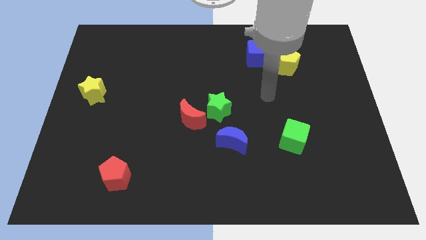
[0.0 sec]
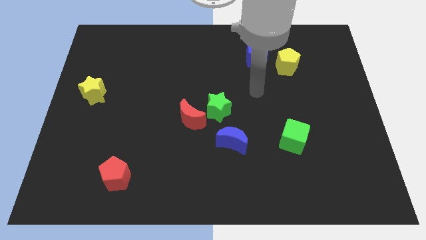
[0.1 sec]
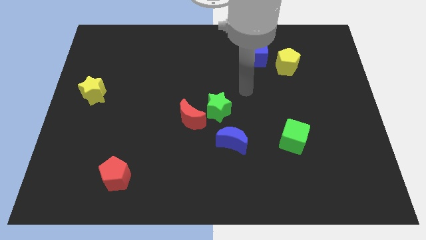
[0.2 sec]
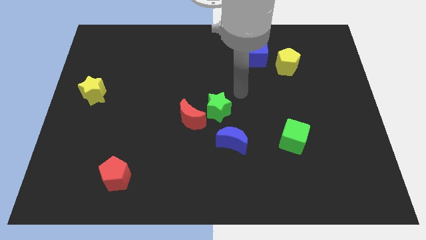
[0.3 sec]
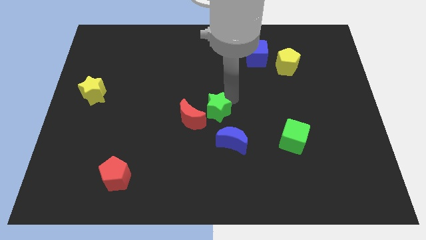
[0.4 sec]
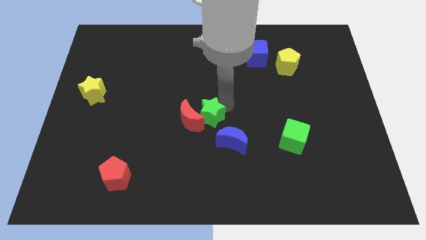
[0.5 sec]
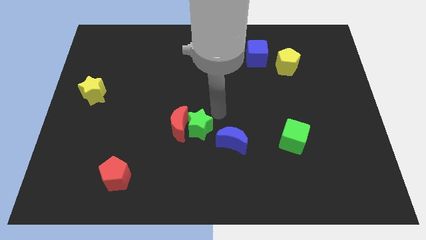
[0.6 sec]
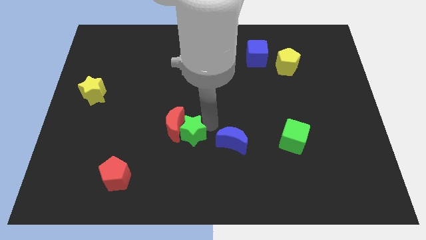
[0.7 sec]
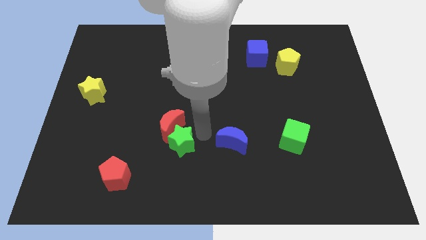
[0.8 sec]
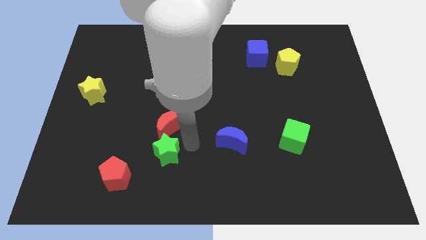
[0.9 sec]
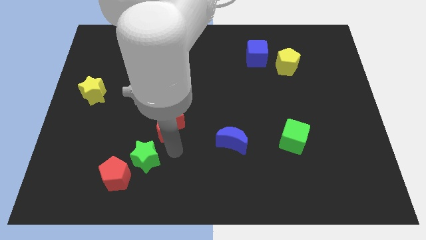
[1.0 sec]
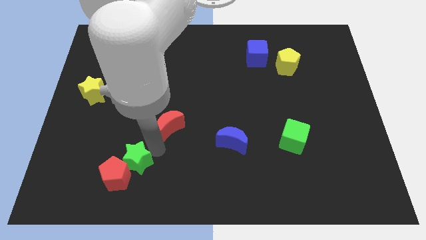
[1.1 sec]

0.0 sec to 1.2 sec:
move the red moon away from the green star

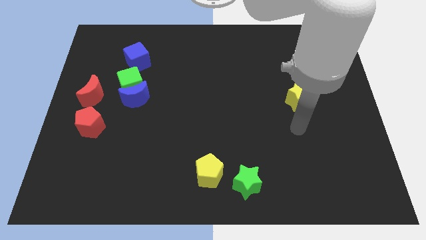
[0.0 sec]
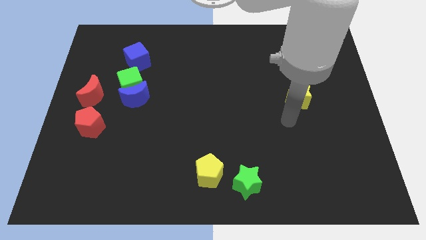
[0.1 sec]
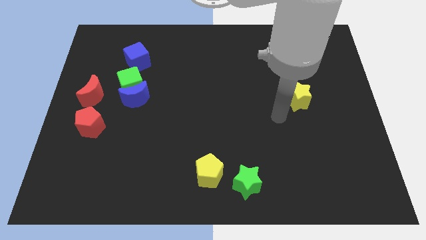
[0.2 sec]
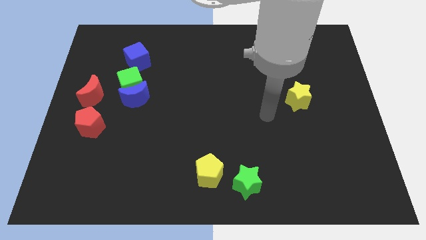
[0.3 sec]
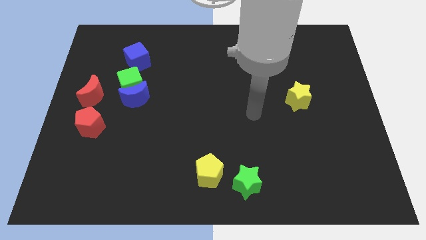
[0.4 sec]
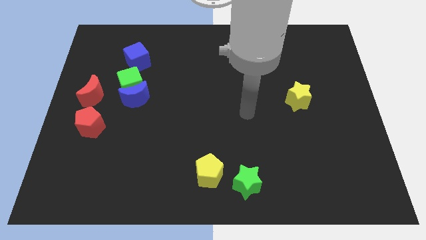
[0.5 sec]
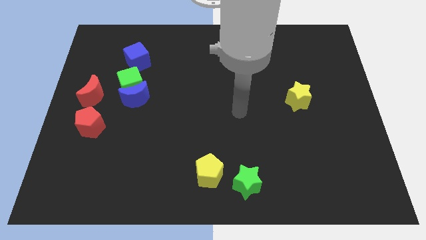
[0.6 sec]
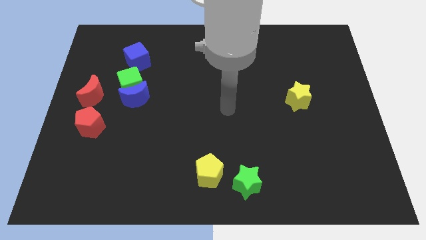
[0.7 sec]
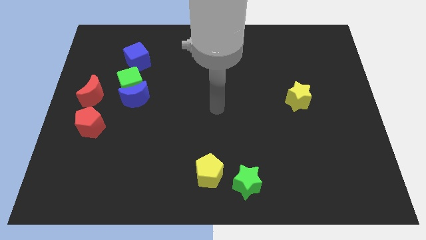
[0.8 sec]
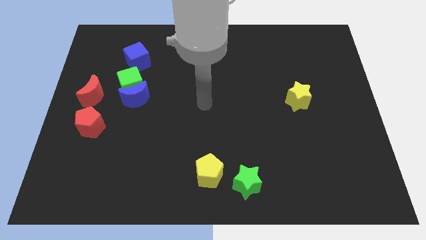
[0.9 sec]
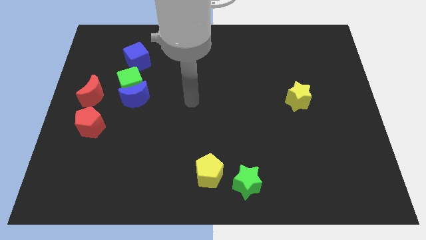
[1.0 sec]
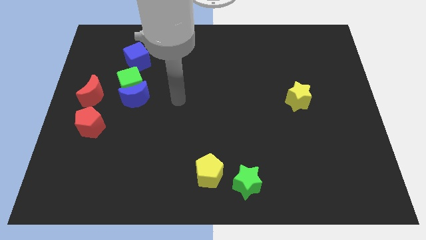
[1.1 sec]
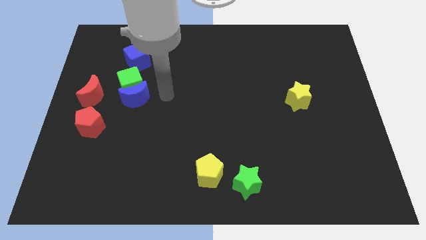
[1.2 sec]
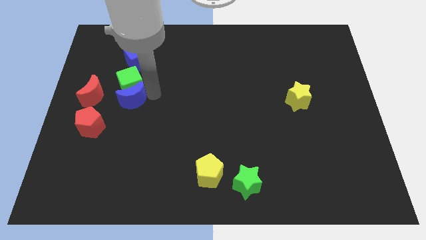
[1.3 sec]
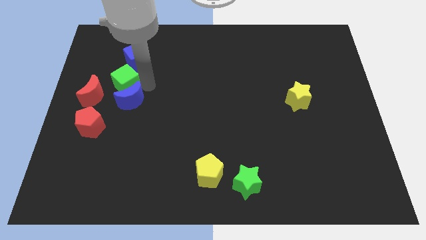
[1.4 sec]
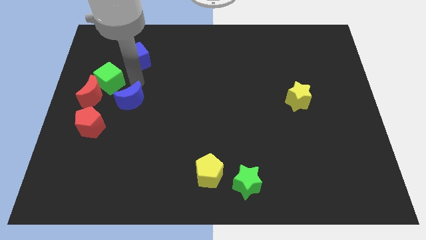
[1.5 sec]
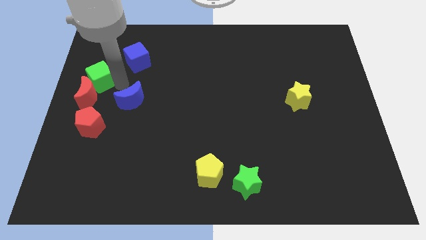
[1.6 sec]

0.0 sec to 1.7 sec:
separate the blue moon from the green cube

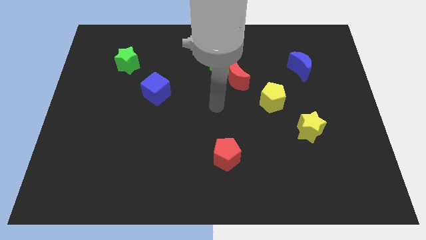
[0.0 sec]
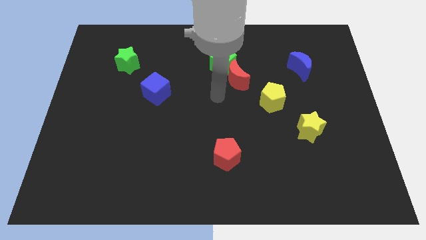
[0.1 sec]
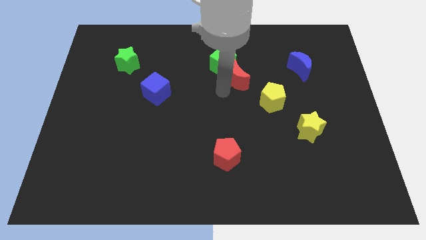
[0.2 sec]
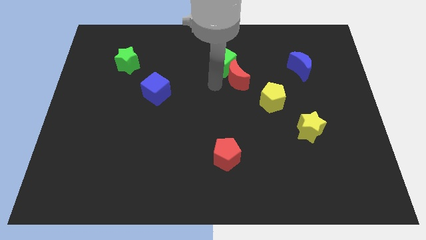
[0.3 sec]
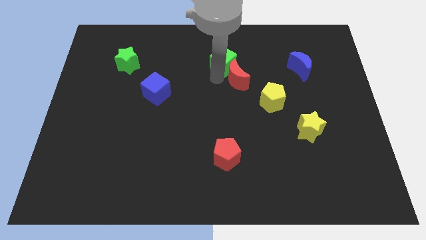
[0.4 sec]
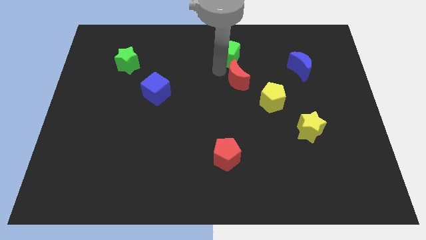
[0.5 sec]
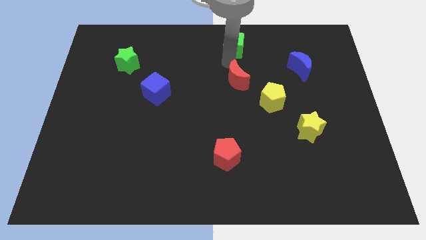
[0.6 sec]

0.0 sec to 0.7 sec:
move the red moon away from the green cube

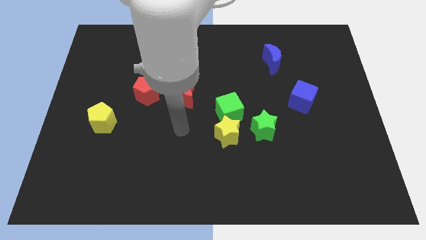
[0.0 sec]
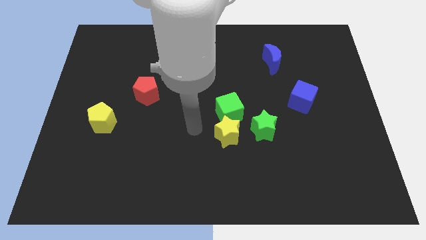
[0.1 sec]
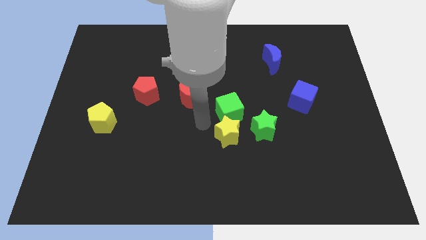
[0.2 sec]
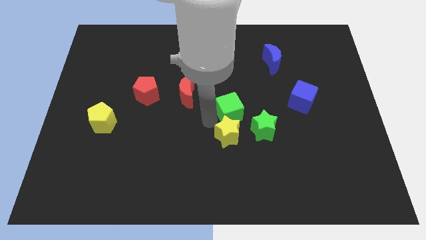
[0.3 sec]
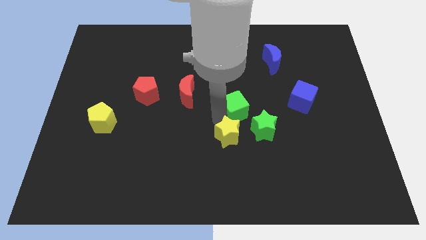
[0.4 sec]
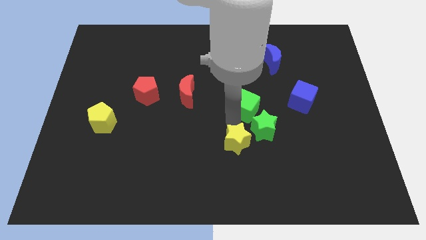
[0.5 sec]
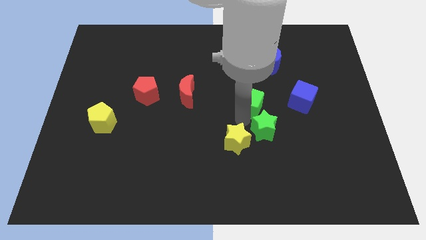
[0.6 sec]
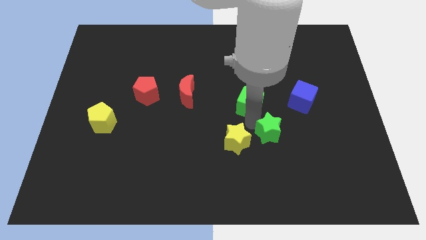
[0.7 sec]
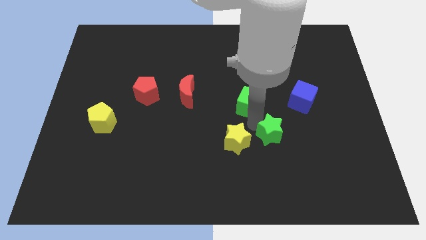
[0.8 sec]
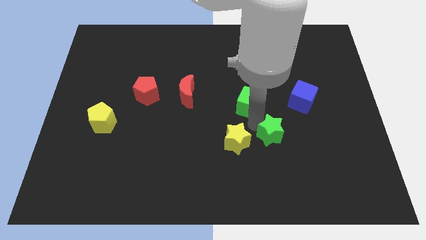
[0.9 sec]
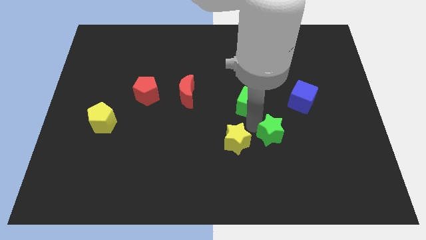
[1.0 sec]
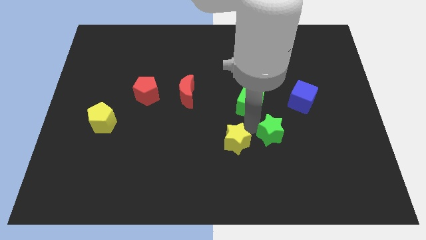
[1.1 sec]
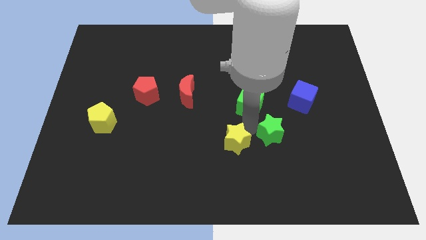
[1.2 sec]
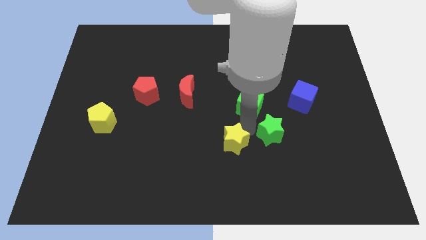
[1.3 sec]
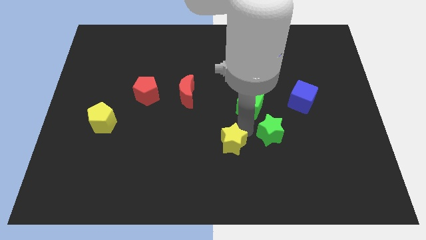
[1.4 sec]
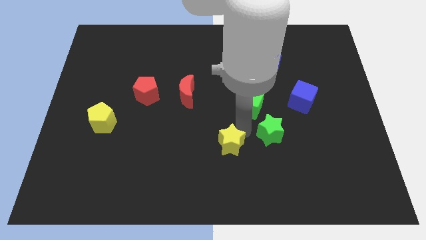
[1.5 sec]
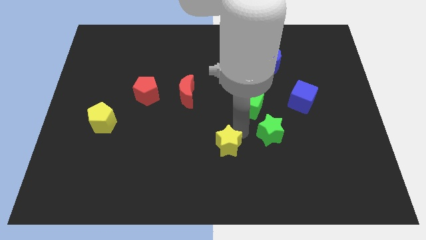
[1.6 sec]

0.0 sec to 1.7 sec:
pull the yellow star apart from the green cube and green star

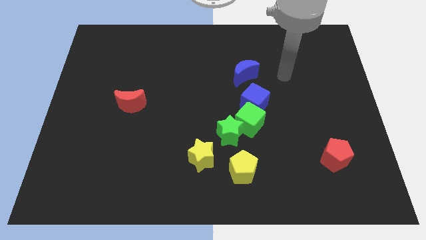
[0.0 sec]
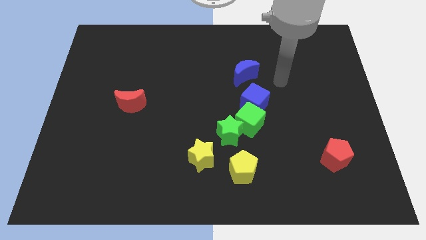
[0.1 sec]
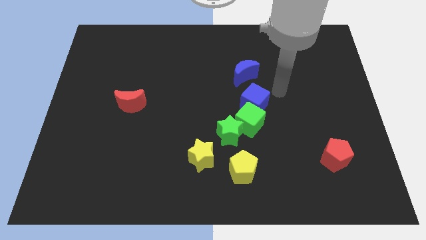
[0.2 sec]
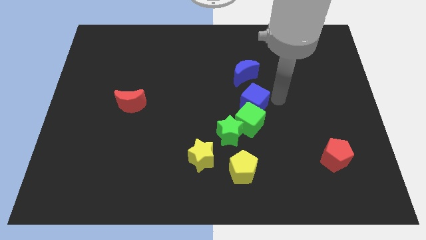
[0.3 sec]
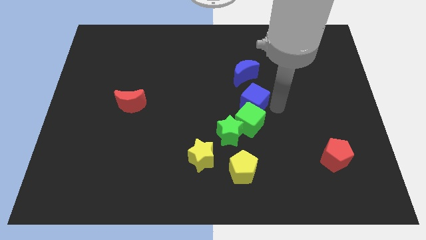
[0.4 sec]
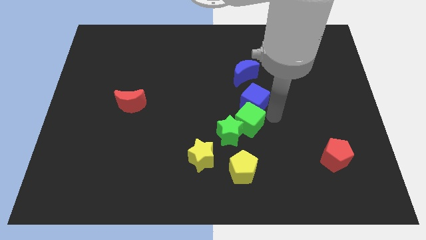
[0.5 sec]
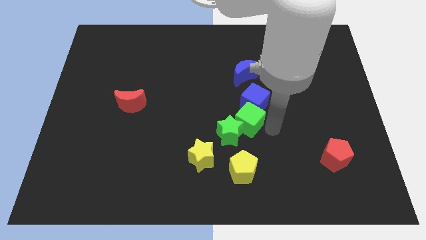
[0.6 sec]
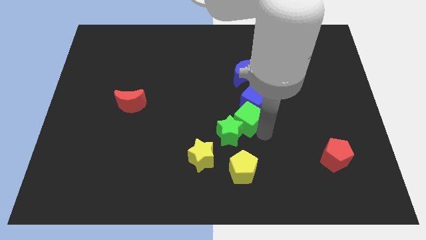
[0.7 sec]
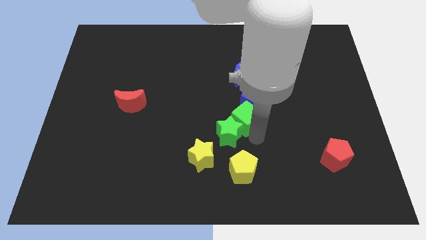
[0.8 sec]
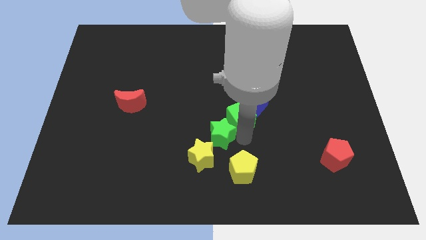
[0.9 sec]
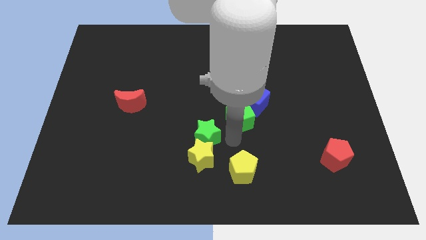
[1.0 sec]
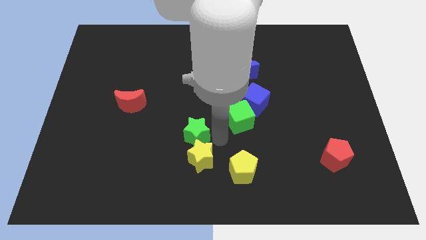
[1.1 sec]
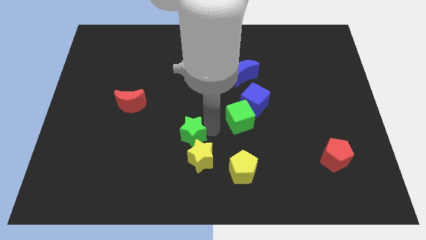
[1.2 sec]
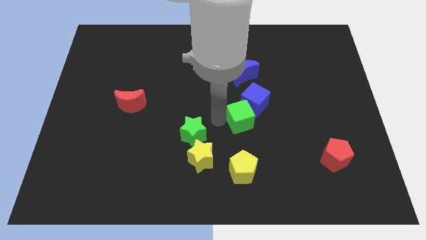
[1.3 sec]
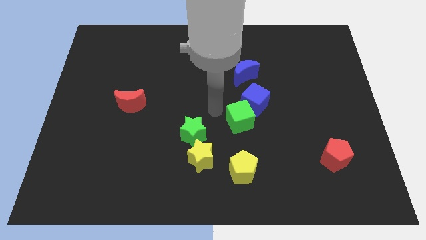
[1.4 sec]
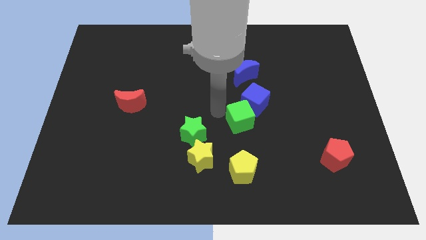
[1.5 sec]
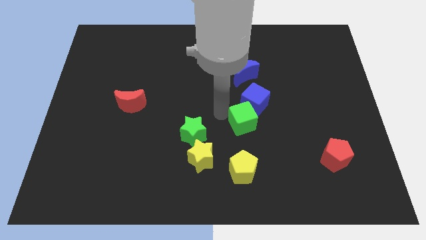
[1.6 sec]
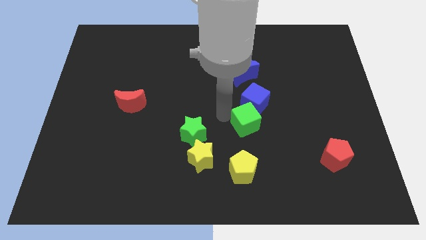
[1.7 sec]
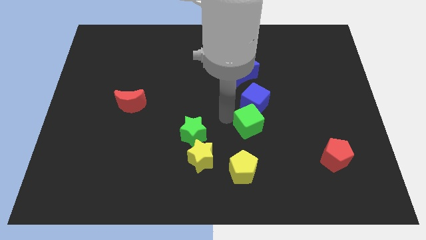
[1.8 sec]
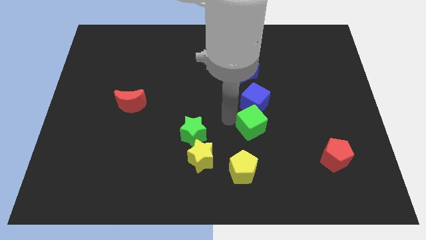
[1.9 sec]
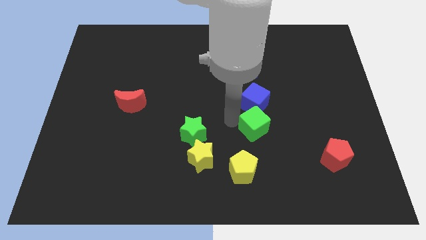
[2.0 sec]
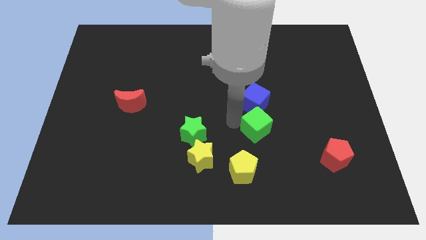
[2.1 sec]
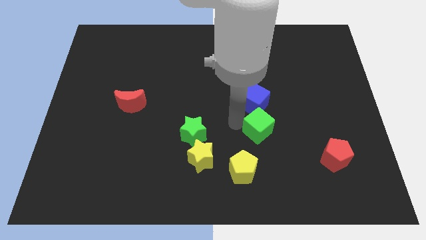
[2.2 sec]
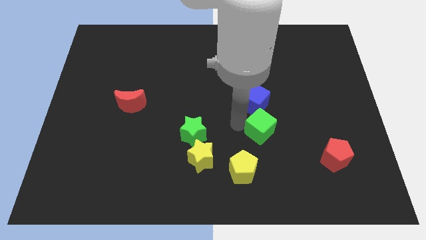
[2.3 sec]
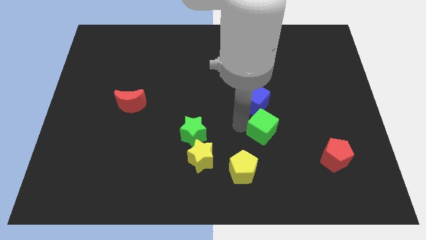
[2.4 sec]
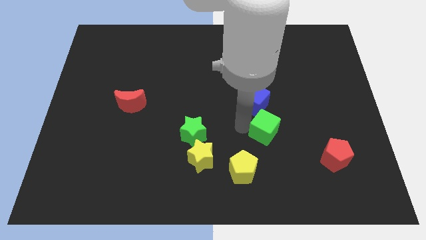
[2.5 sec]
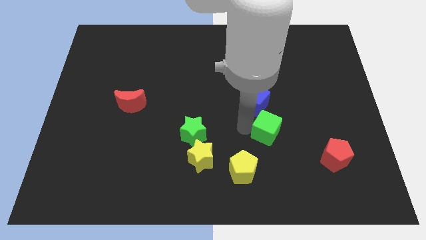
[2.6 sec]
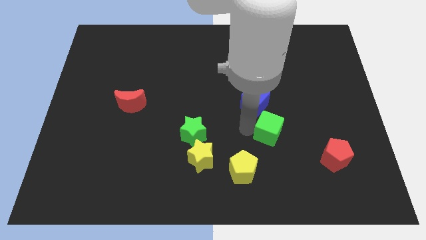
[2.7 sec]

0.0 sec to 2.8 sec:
separate the green cube from the green star and blue cube

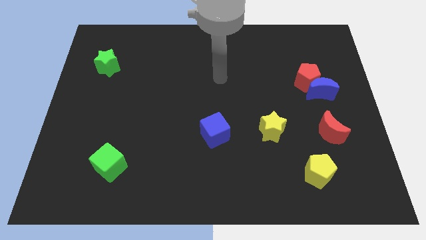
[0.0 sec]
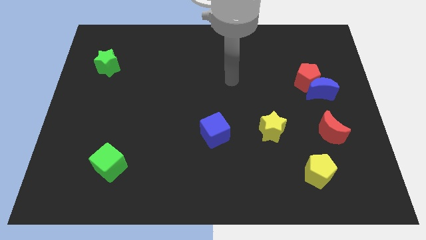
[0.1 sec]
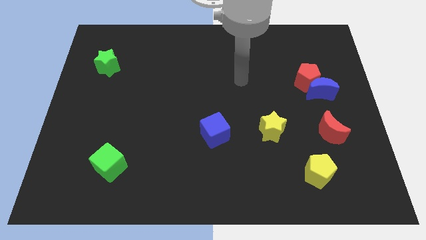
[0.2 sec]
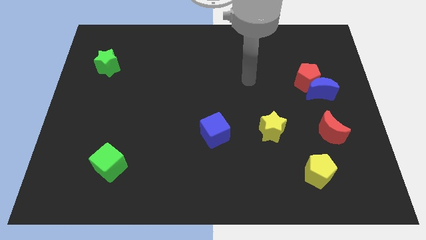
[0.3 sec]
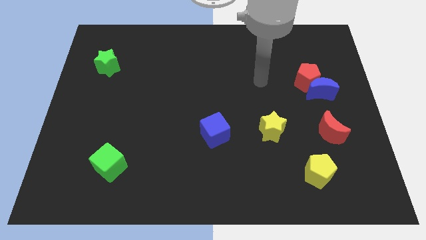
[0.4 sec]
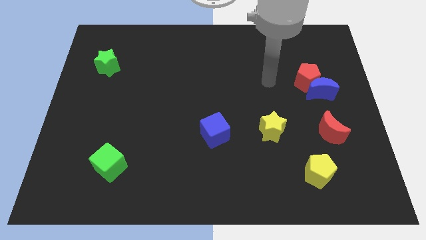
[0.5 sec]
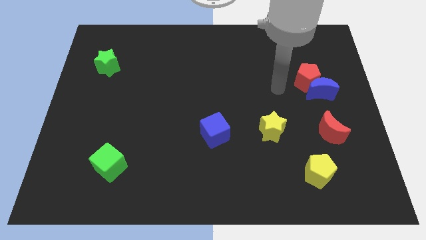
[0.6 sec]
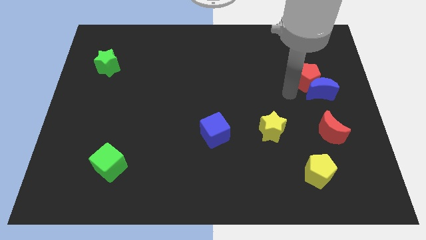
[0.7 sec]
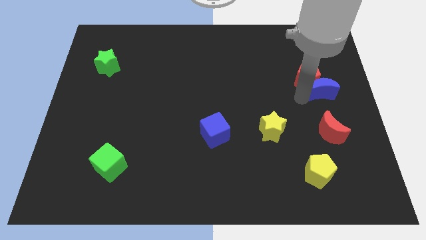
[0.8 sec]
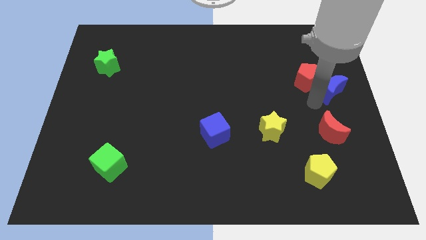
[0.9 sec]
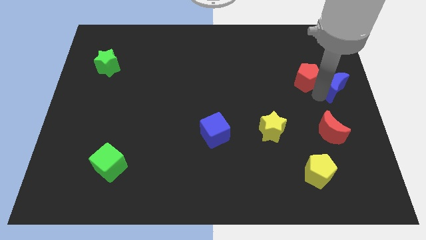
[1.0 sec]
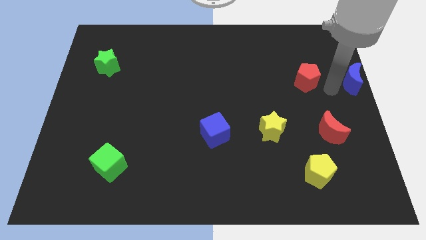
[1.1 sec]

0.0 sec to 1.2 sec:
move the red pentagon away from the blue moon
